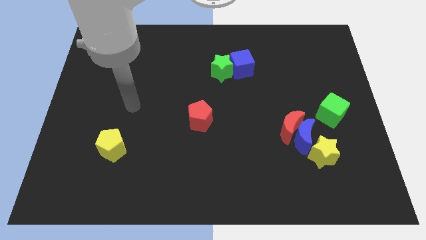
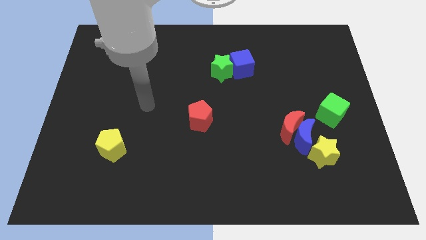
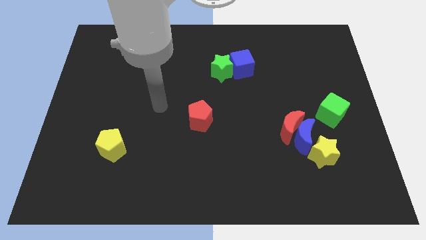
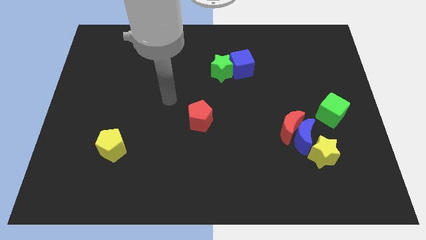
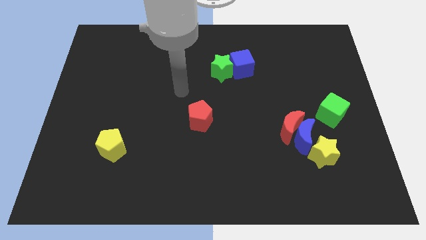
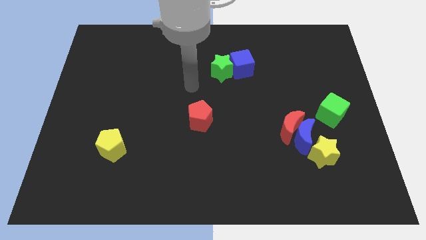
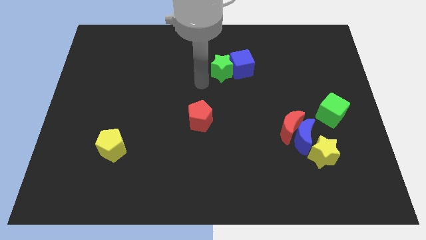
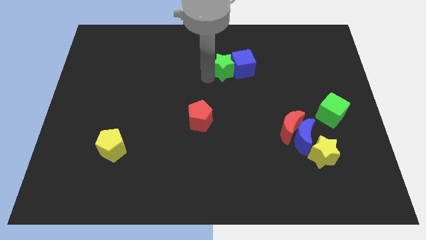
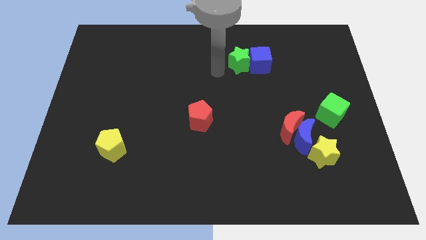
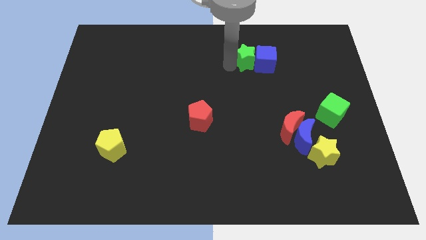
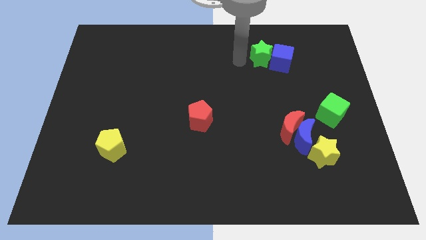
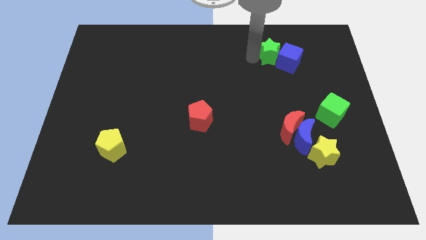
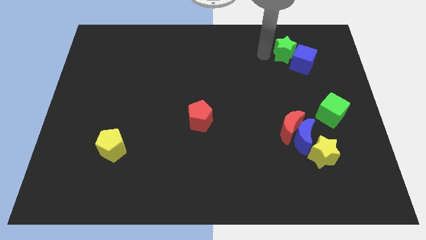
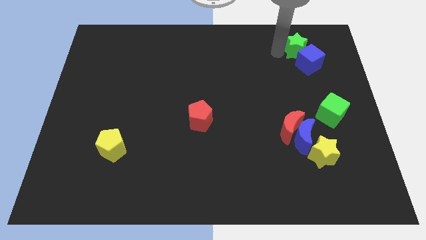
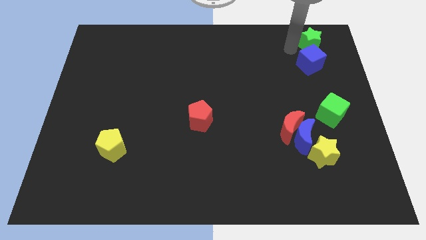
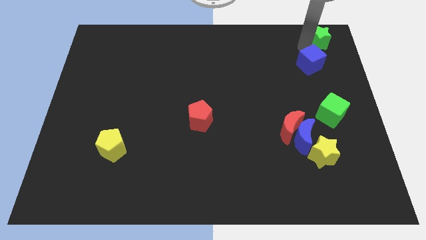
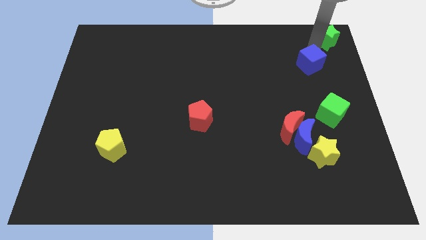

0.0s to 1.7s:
move the blue cube away from the green star

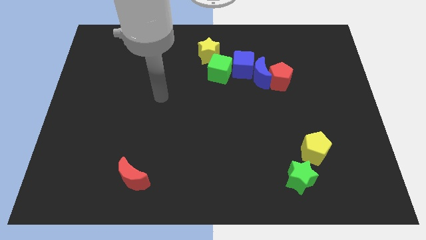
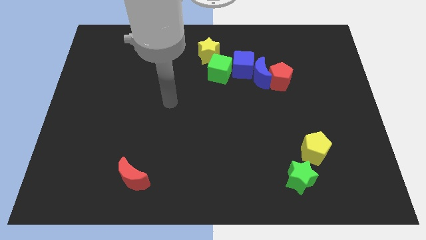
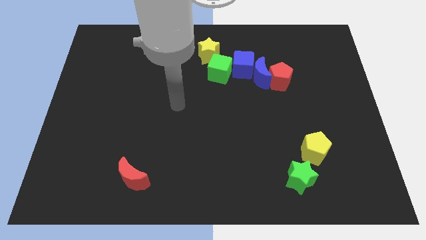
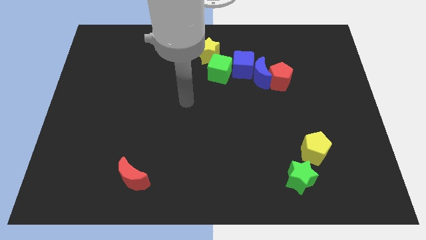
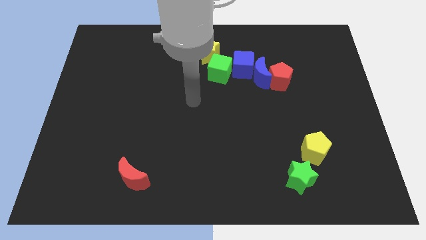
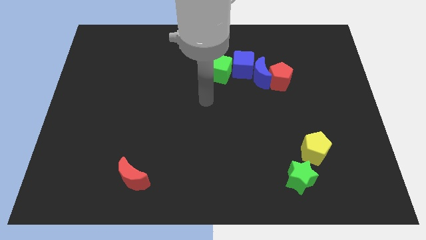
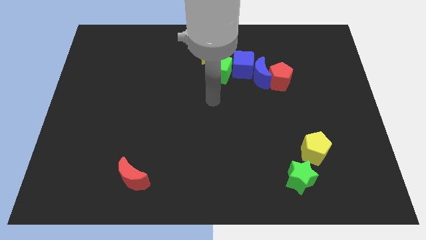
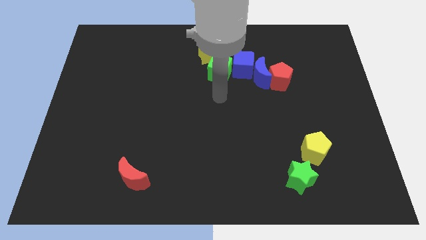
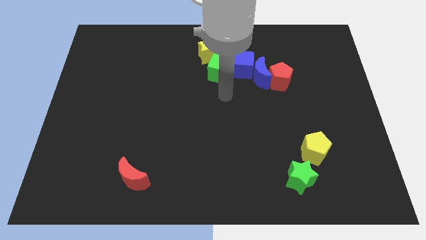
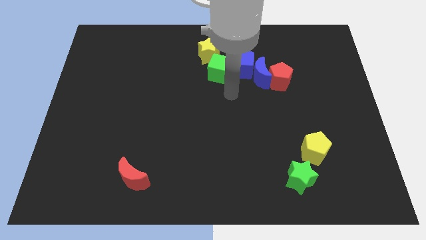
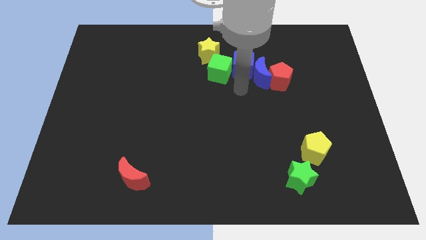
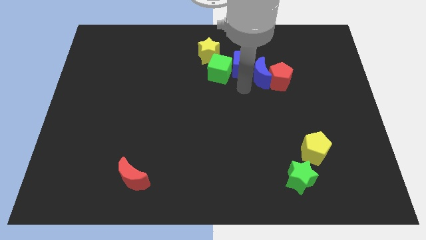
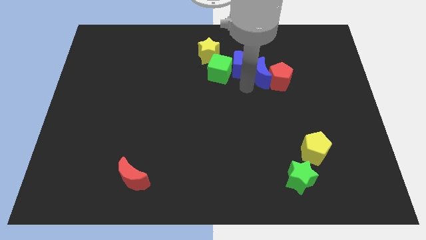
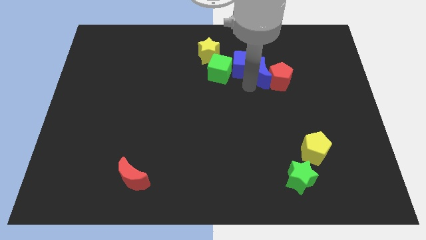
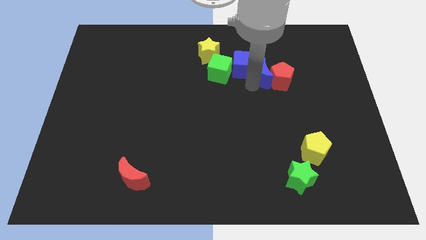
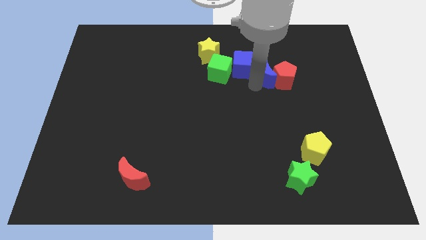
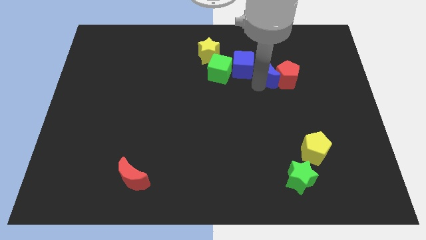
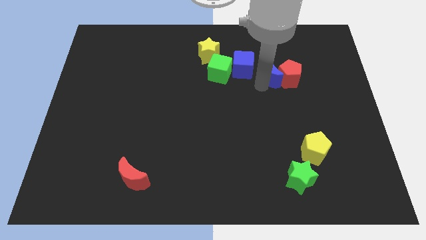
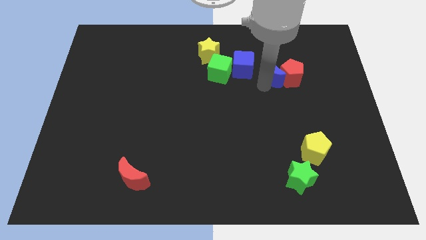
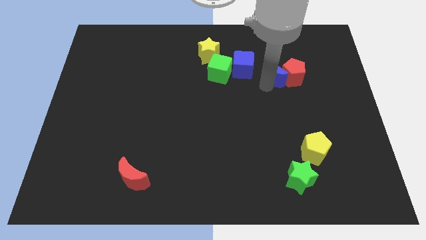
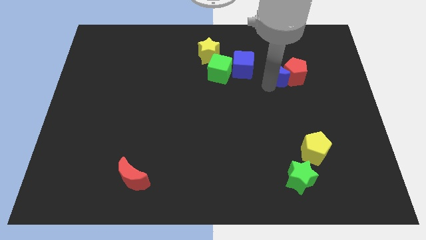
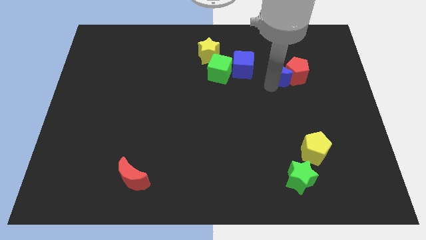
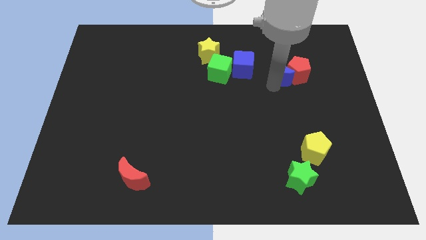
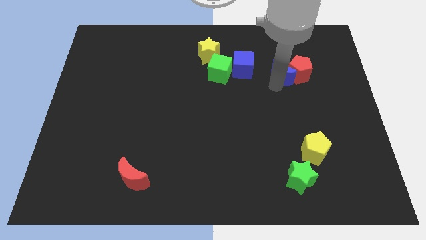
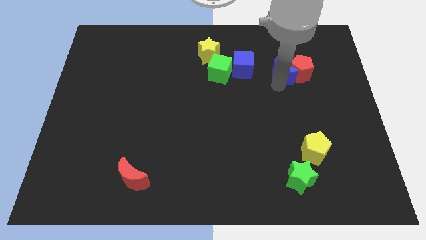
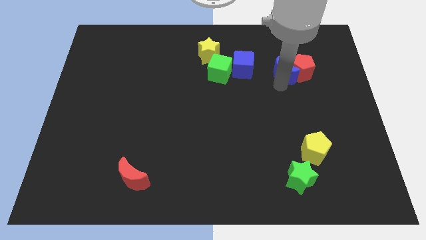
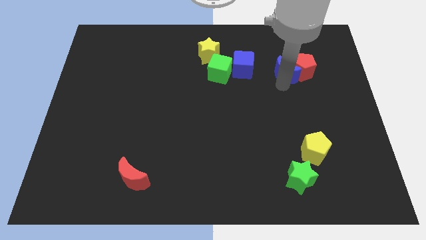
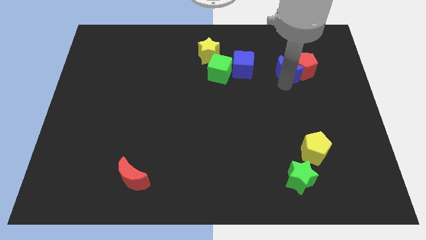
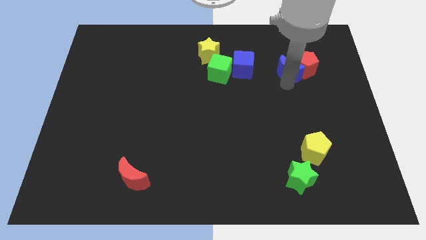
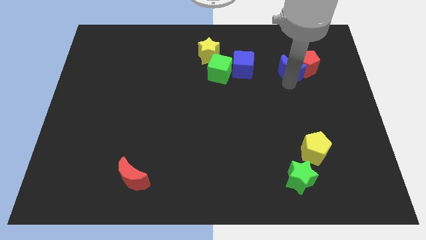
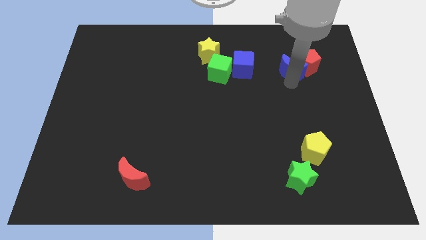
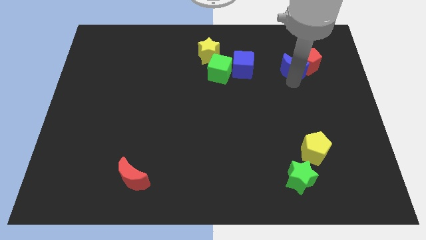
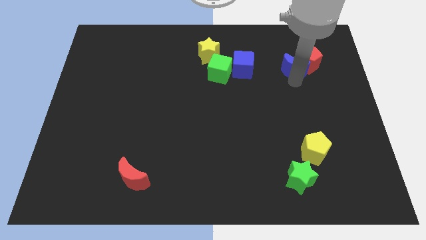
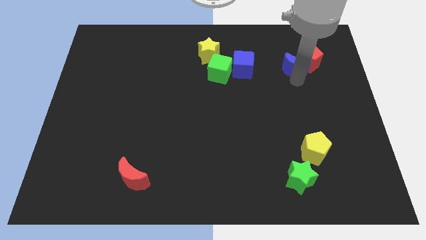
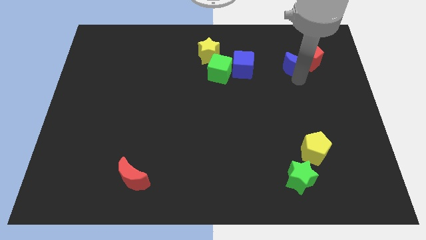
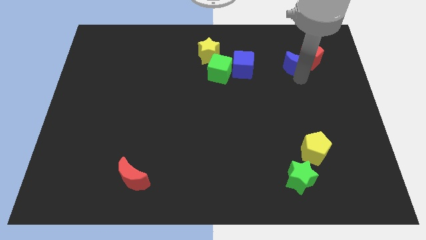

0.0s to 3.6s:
separate the blue moon from the red pentagon, blue cube, and green cube

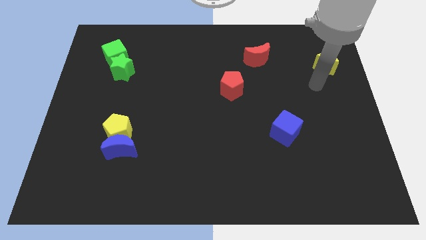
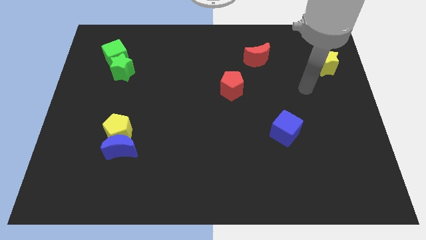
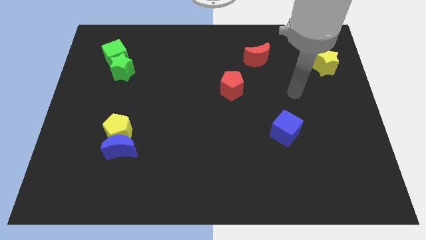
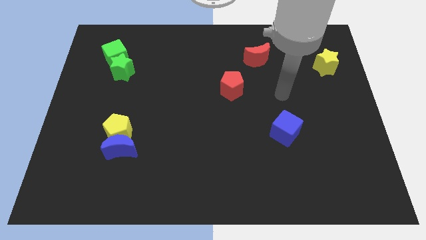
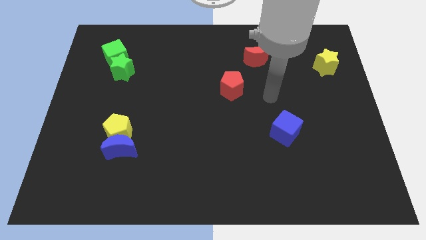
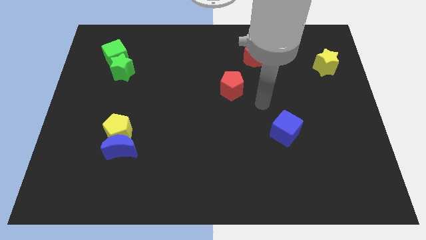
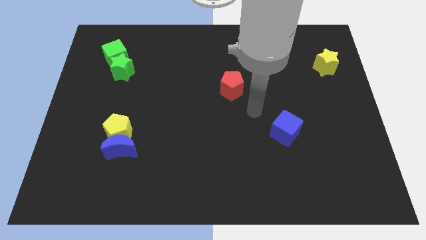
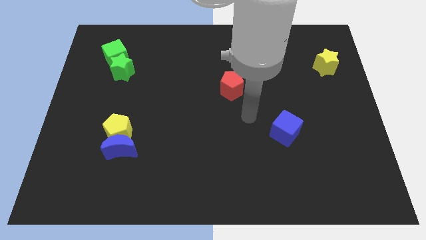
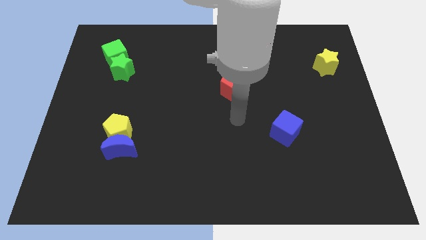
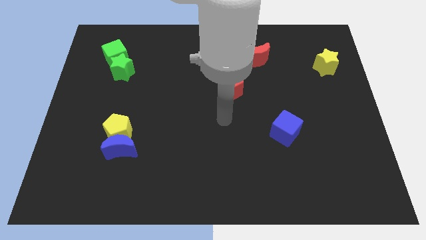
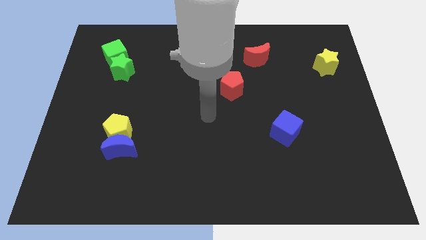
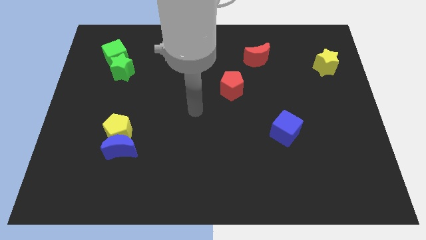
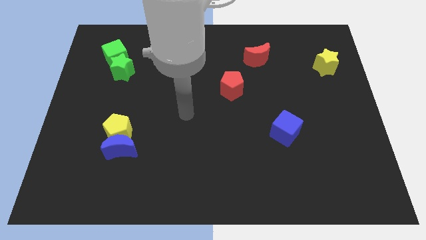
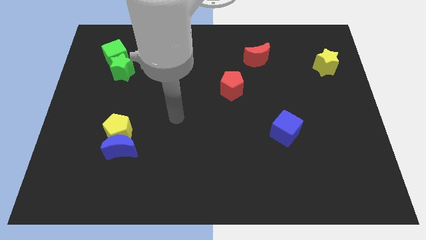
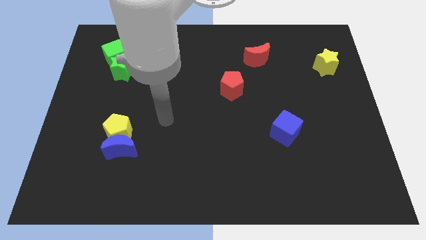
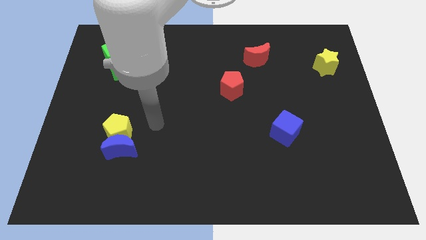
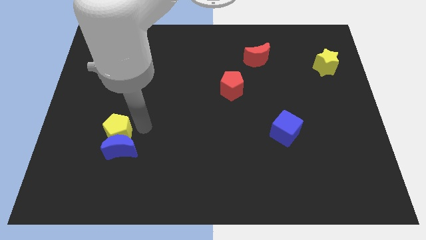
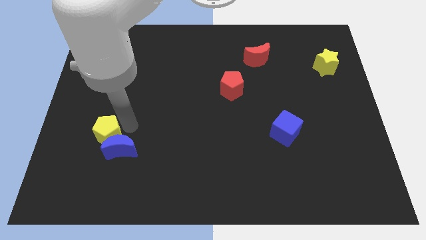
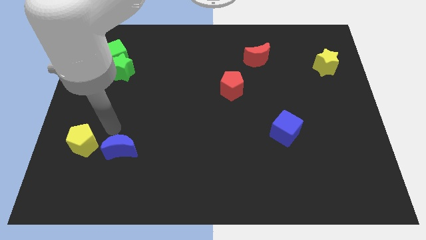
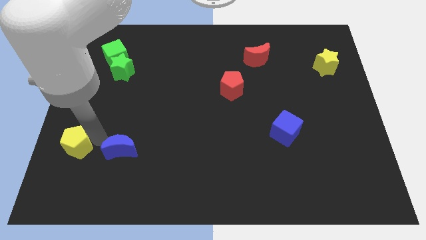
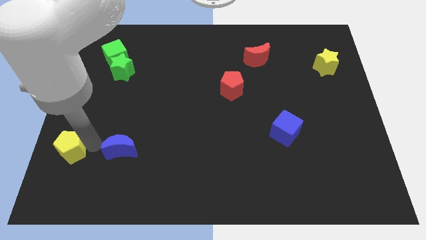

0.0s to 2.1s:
separate the blue moon from the yellow pentagon

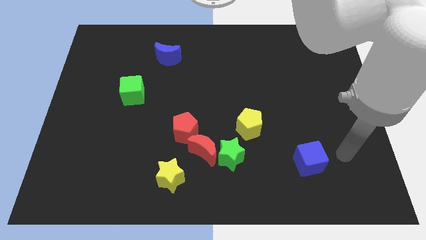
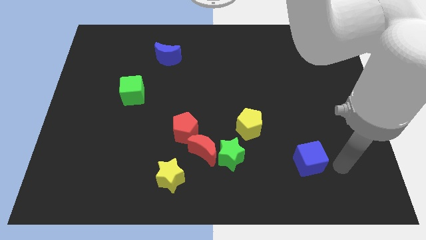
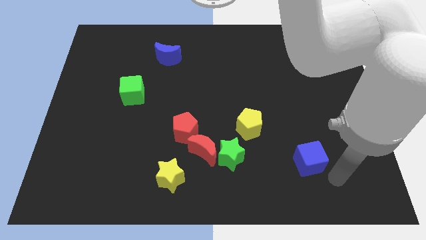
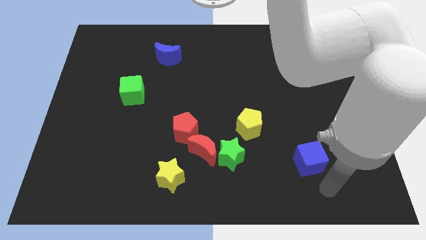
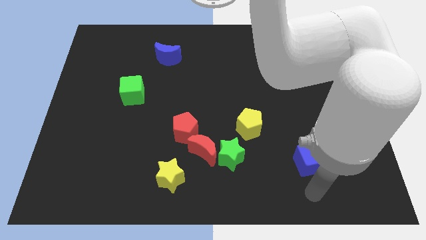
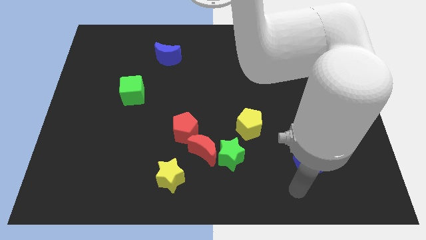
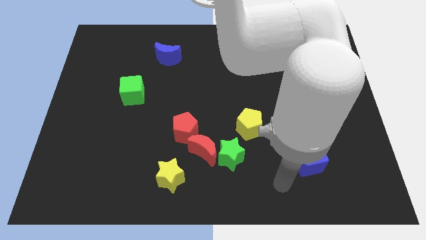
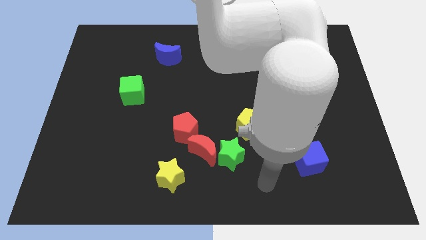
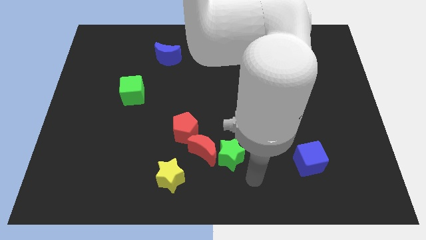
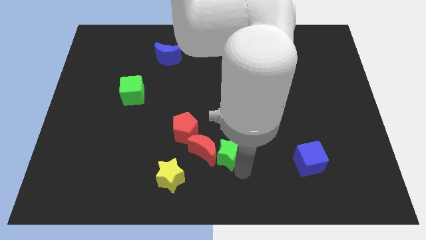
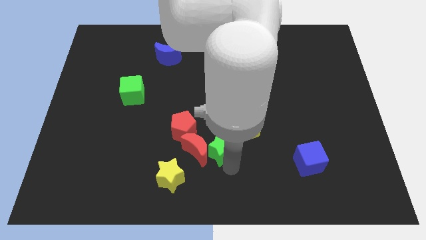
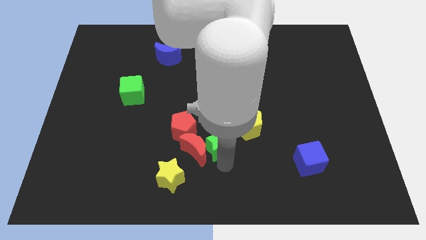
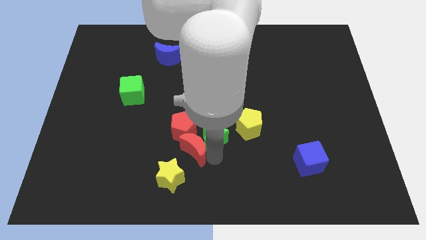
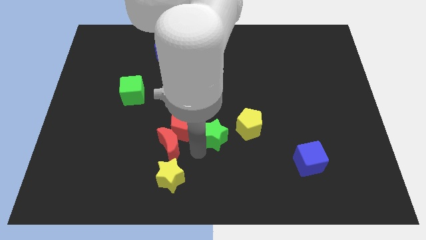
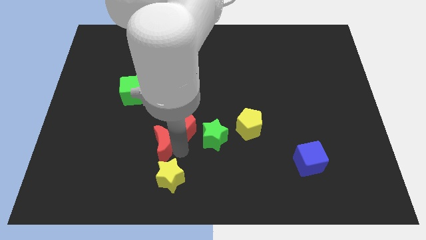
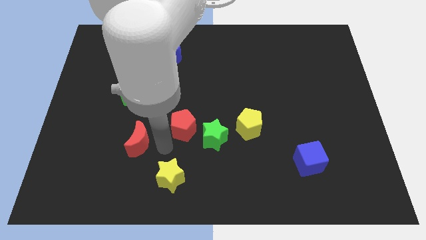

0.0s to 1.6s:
pull the red pentagon apart from the red moon

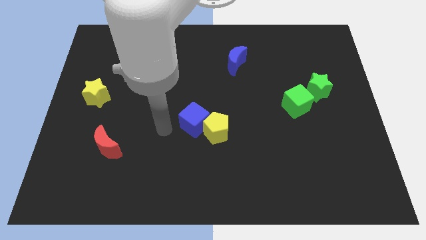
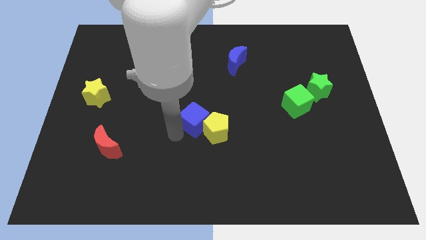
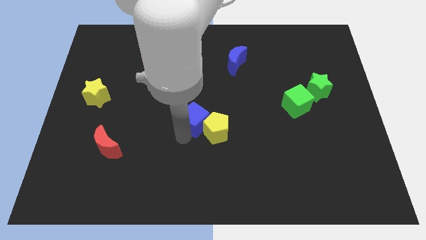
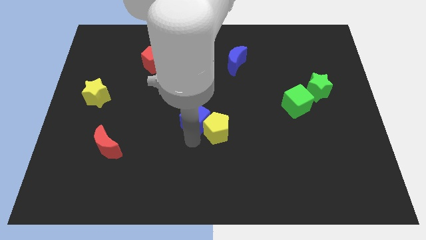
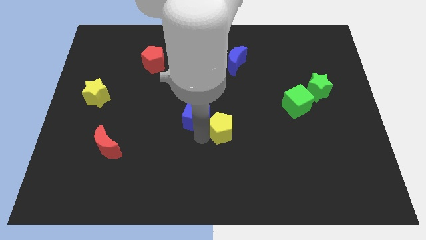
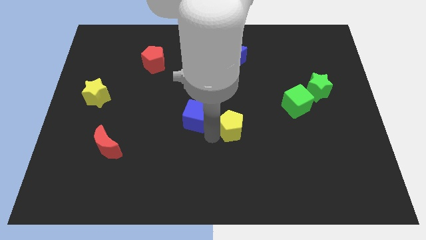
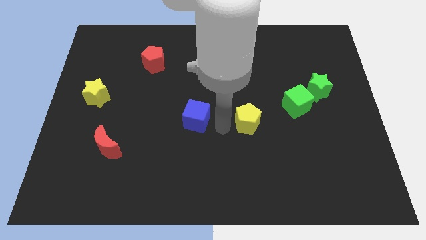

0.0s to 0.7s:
move the blue cube away from the yellow pentagon
